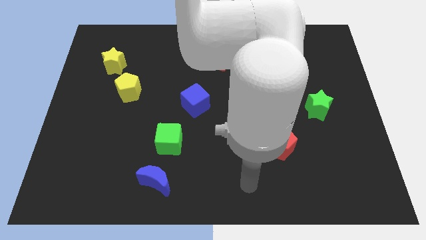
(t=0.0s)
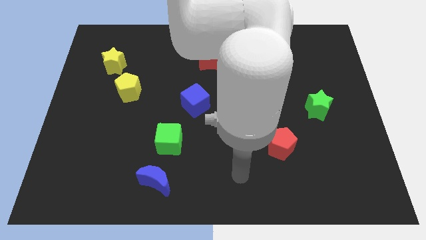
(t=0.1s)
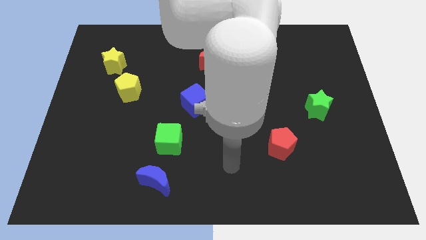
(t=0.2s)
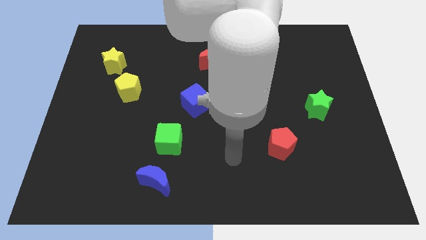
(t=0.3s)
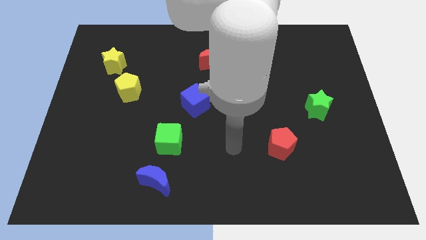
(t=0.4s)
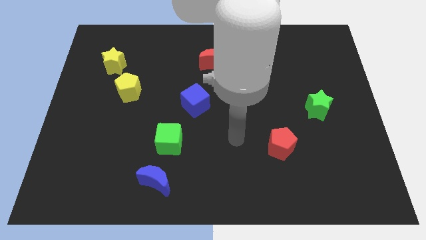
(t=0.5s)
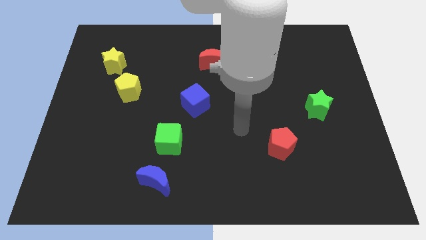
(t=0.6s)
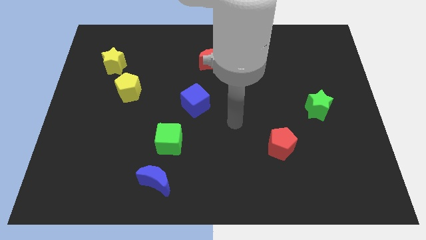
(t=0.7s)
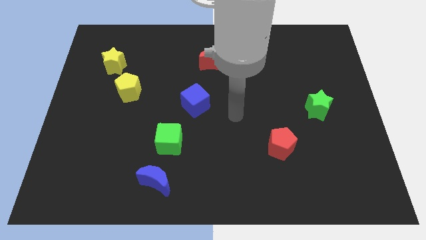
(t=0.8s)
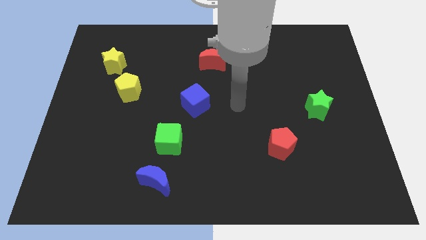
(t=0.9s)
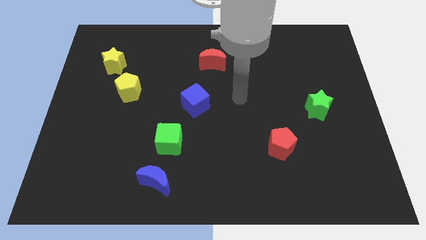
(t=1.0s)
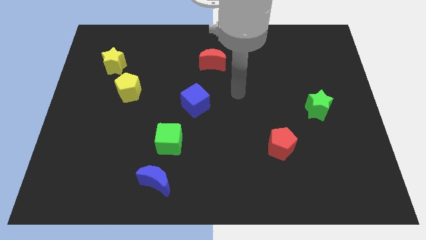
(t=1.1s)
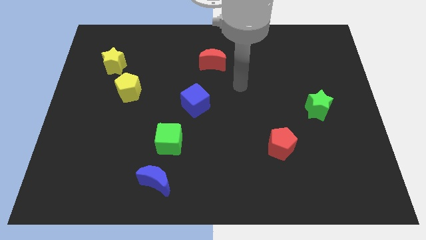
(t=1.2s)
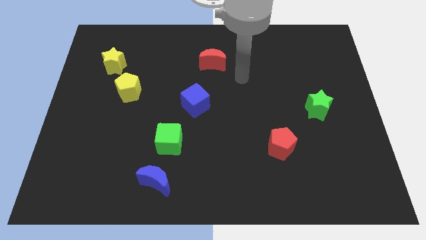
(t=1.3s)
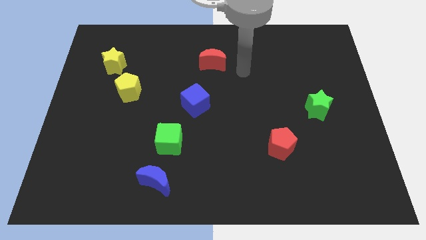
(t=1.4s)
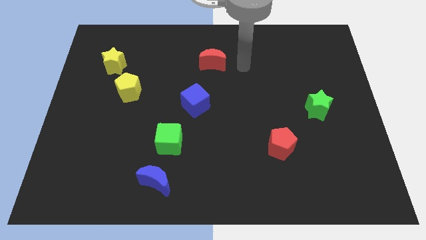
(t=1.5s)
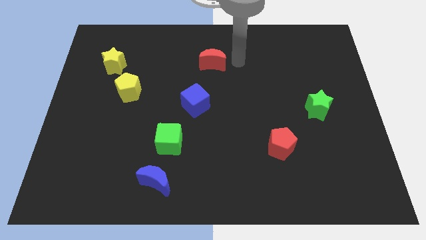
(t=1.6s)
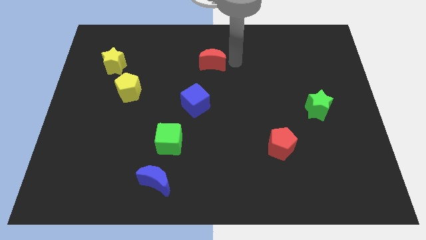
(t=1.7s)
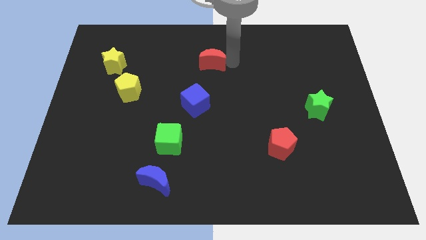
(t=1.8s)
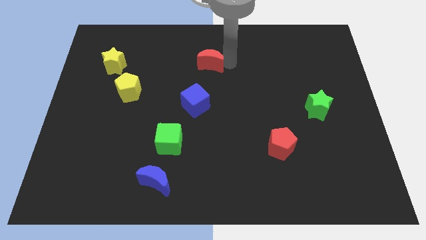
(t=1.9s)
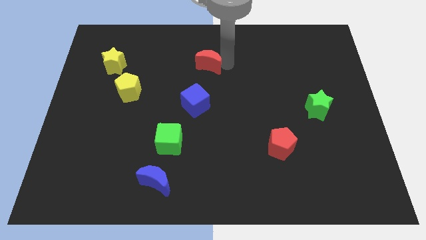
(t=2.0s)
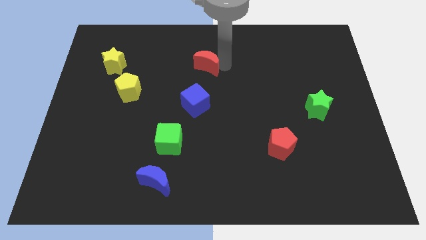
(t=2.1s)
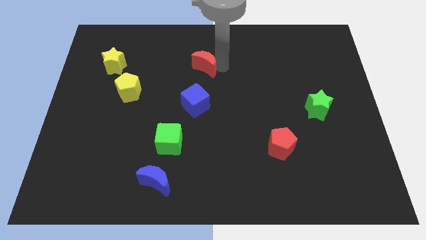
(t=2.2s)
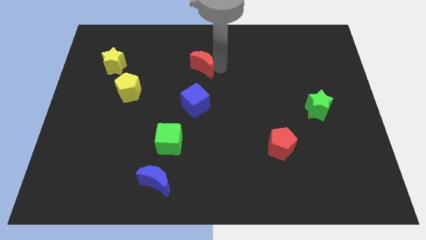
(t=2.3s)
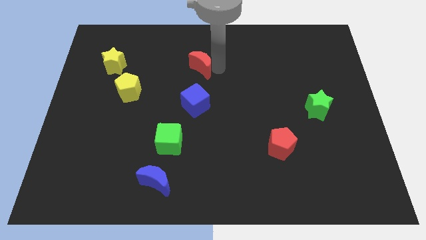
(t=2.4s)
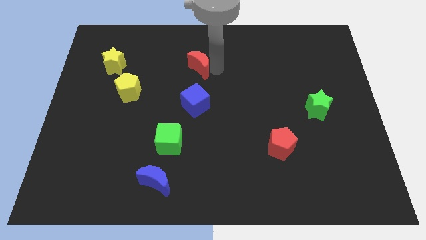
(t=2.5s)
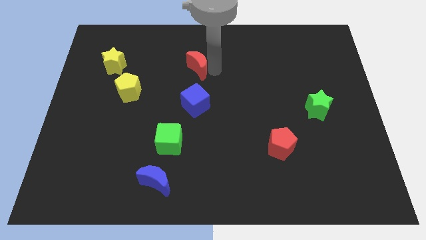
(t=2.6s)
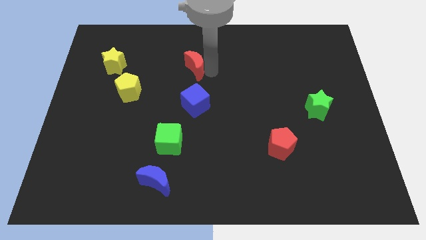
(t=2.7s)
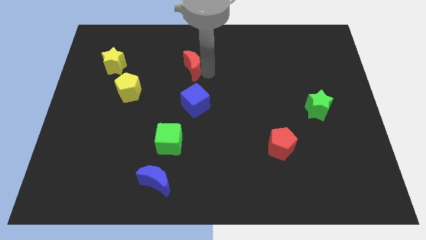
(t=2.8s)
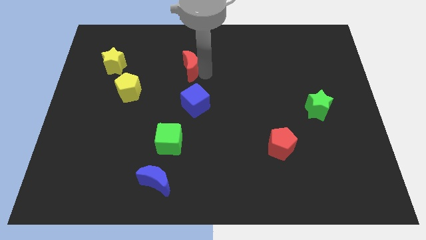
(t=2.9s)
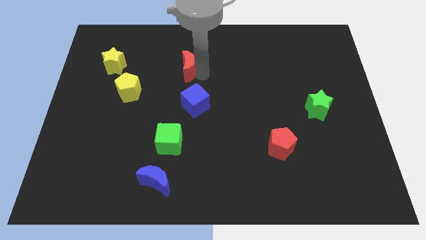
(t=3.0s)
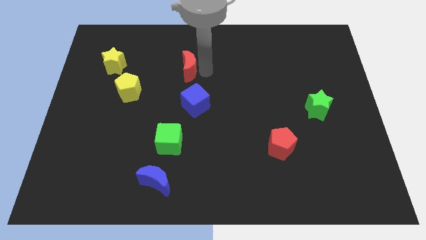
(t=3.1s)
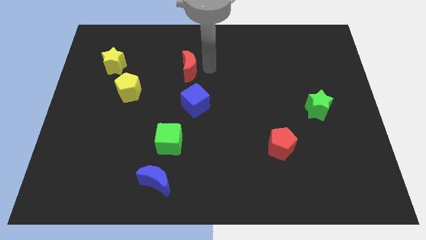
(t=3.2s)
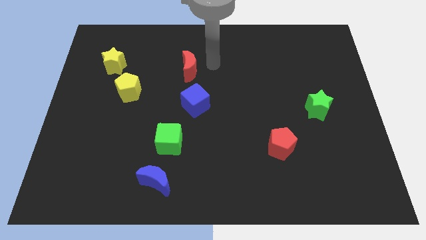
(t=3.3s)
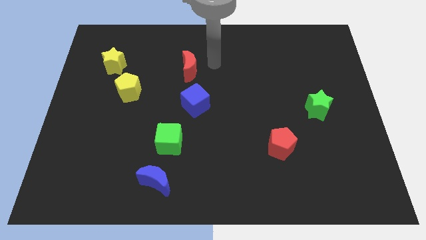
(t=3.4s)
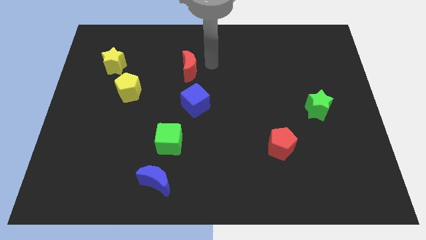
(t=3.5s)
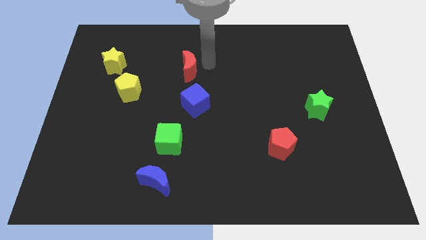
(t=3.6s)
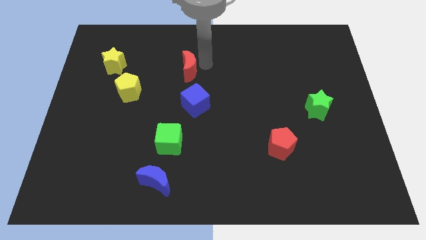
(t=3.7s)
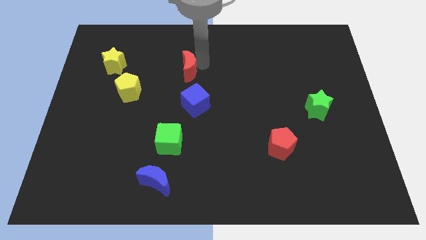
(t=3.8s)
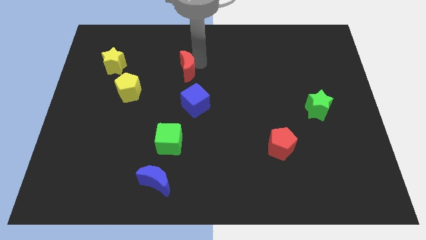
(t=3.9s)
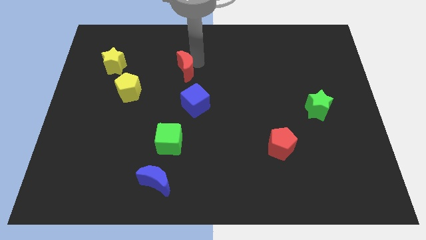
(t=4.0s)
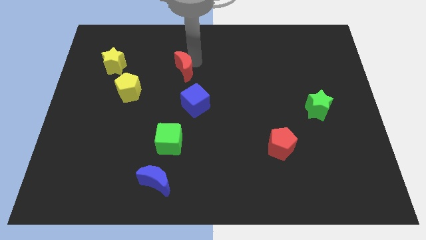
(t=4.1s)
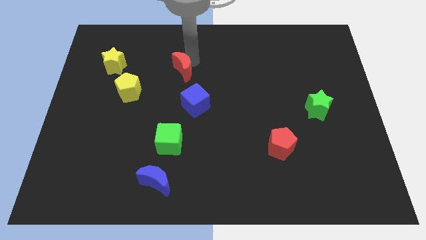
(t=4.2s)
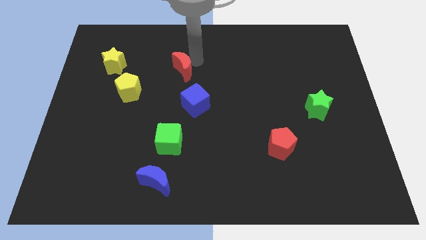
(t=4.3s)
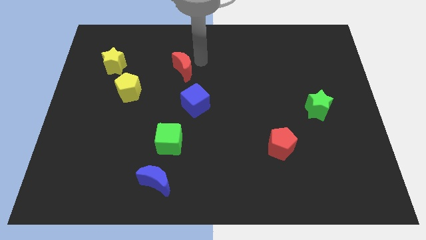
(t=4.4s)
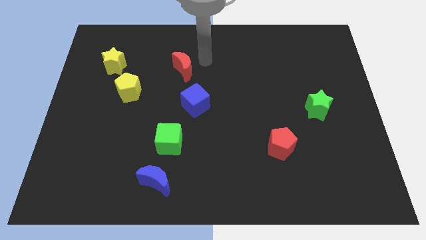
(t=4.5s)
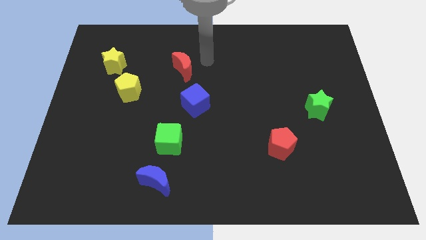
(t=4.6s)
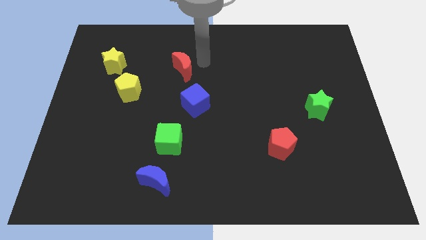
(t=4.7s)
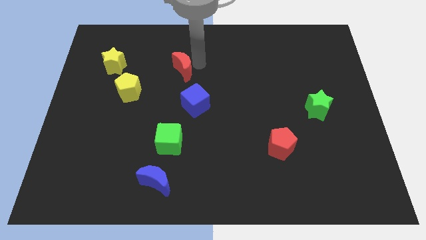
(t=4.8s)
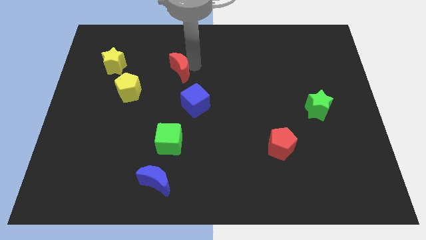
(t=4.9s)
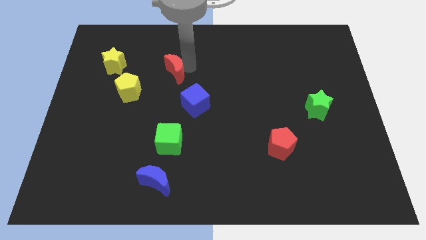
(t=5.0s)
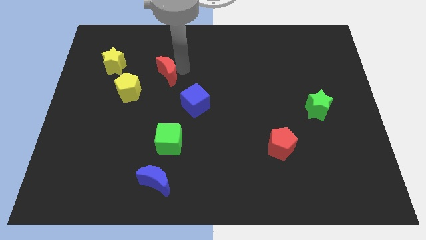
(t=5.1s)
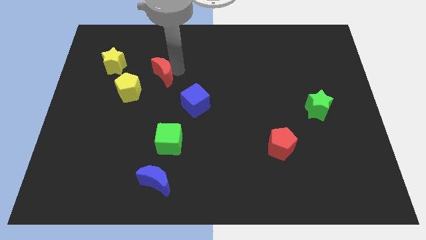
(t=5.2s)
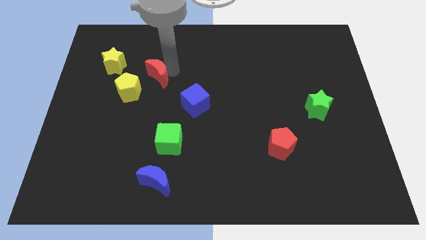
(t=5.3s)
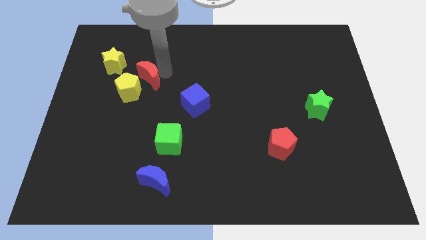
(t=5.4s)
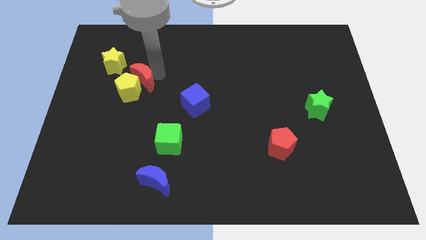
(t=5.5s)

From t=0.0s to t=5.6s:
move the red moon next to the yellow pentagon

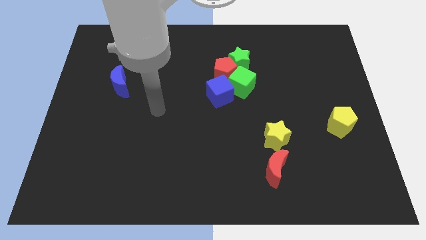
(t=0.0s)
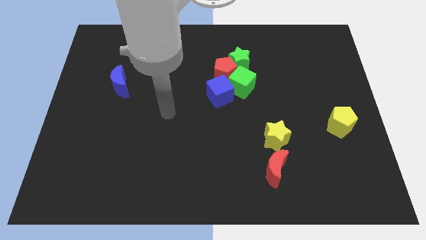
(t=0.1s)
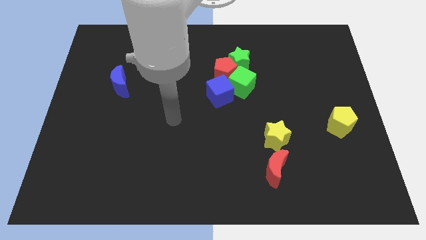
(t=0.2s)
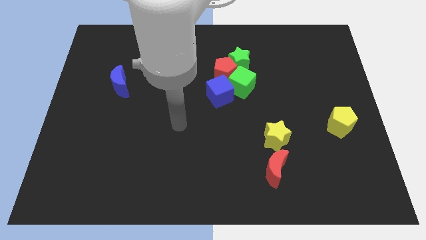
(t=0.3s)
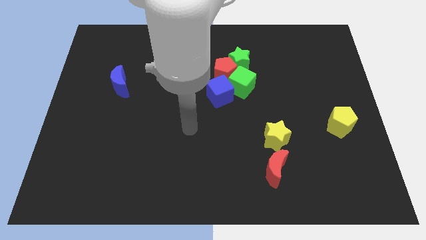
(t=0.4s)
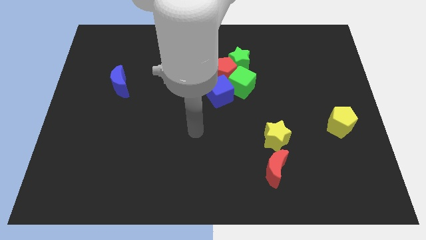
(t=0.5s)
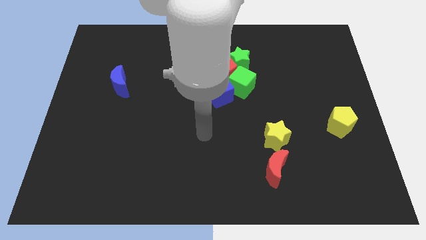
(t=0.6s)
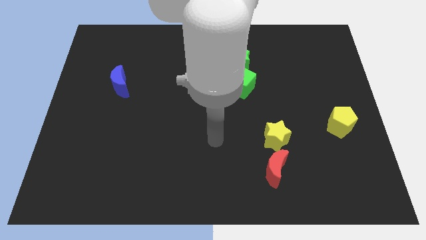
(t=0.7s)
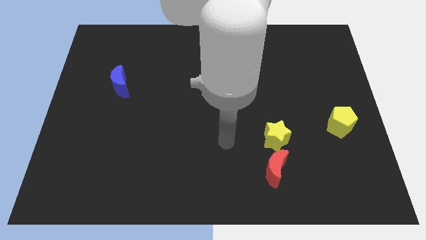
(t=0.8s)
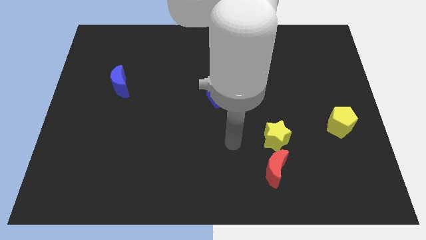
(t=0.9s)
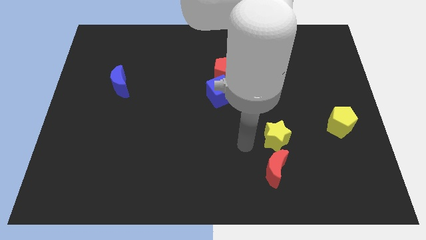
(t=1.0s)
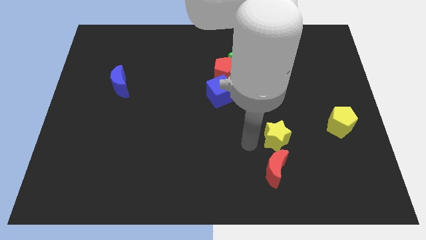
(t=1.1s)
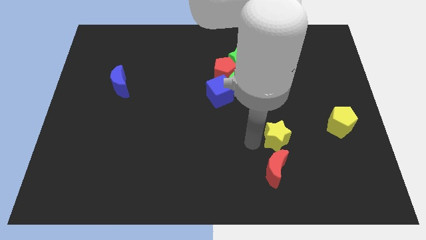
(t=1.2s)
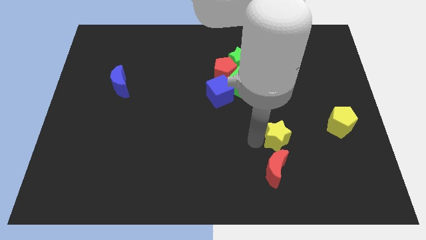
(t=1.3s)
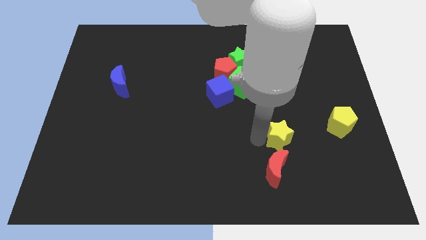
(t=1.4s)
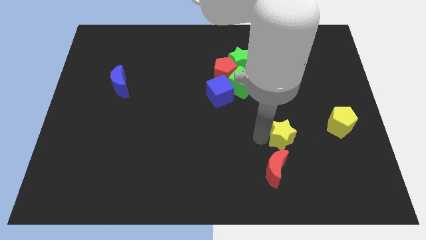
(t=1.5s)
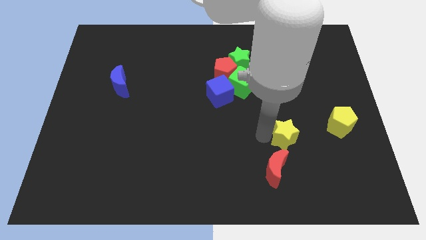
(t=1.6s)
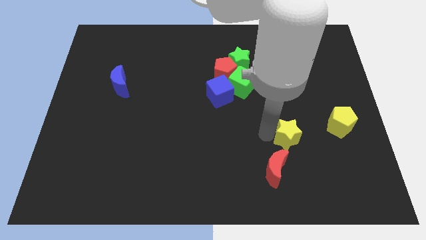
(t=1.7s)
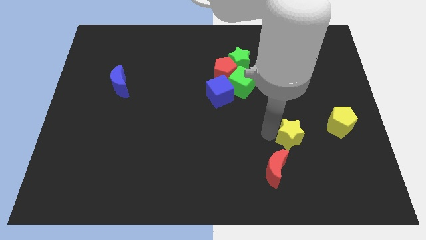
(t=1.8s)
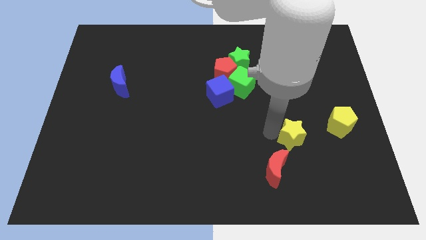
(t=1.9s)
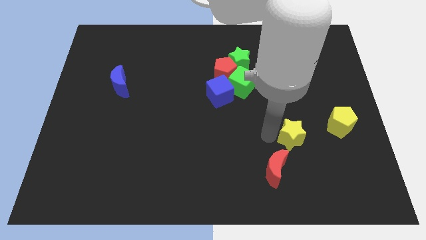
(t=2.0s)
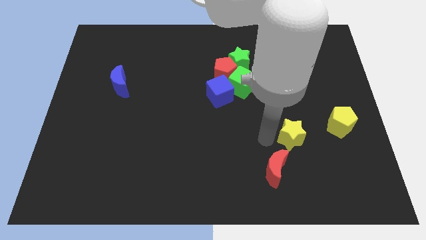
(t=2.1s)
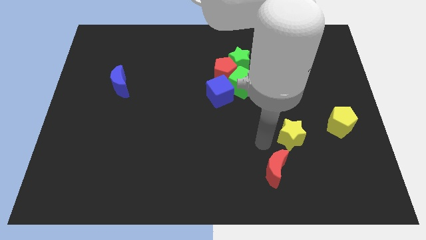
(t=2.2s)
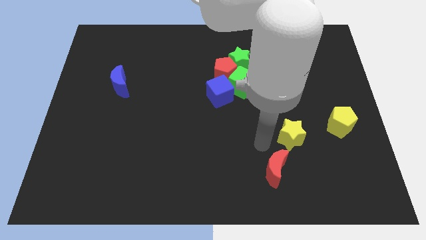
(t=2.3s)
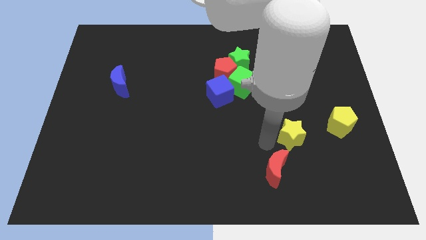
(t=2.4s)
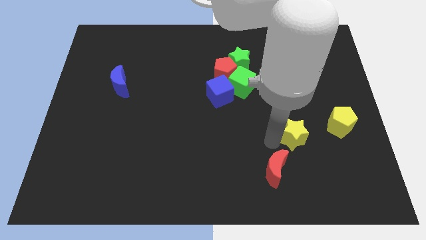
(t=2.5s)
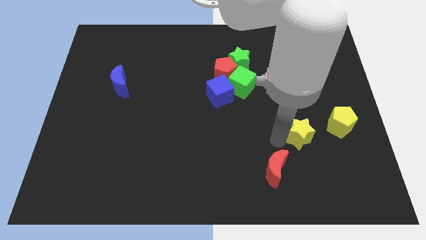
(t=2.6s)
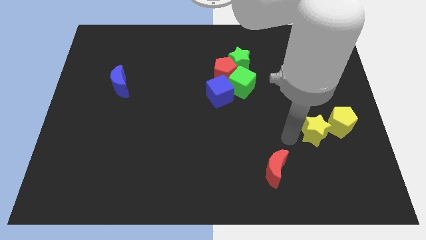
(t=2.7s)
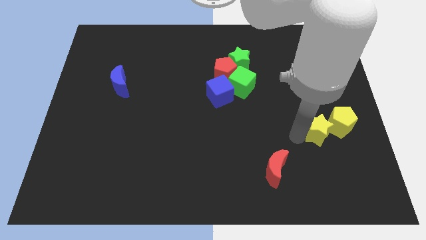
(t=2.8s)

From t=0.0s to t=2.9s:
push the yellow star next to the yellow pentagon
